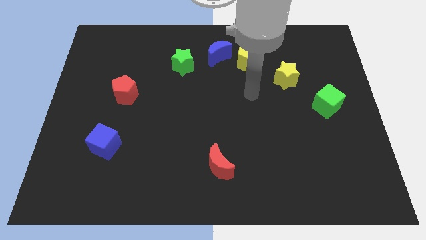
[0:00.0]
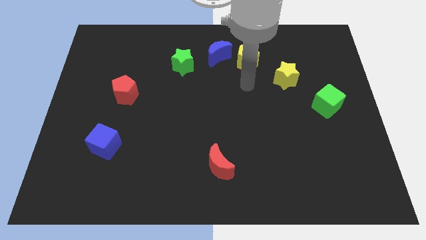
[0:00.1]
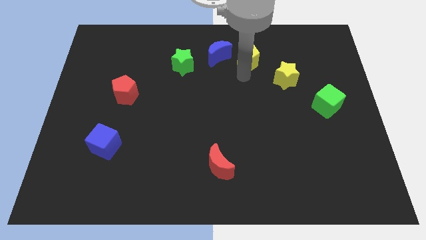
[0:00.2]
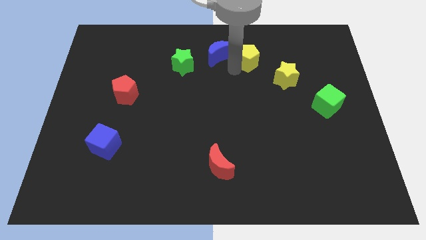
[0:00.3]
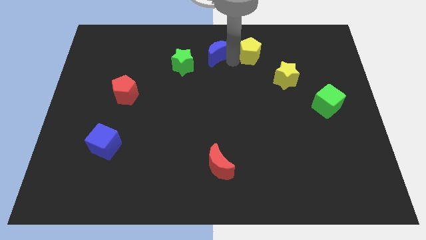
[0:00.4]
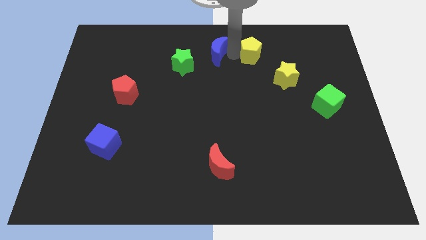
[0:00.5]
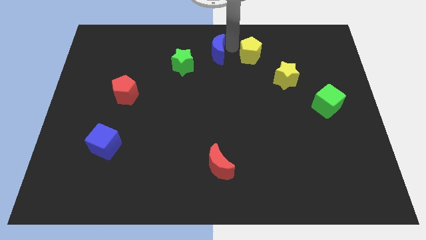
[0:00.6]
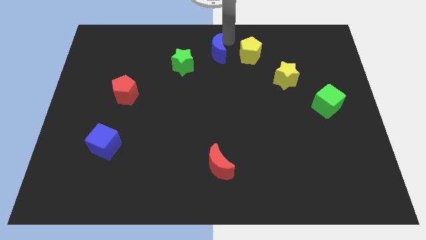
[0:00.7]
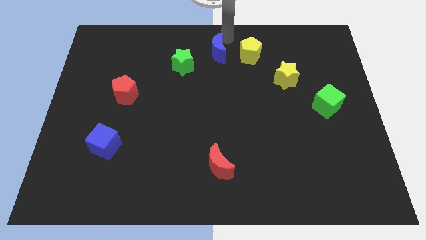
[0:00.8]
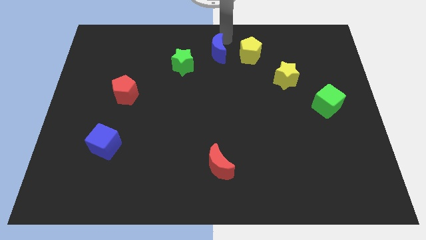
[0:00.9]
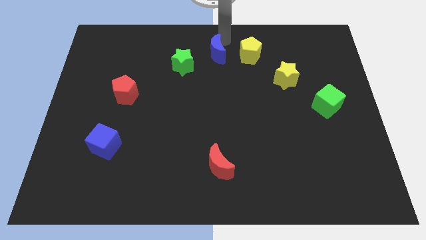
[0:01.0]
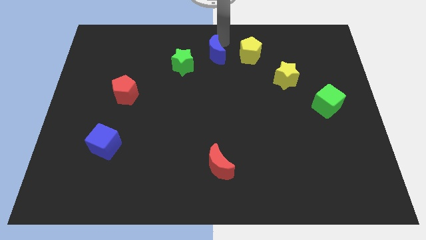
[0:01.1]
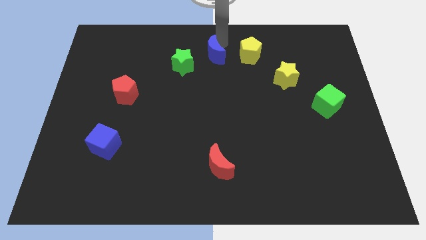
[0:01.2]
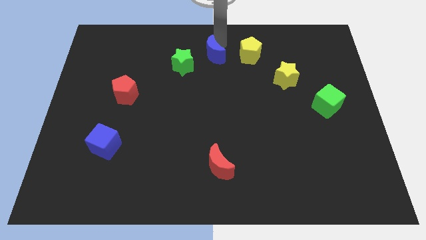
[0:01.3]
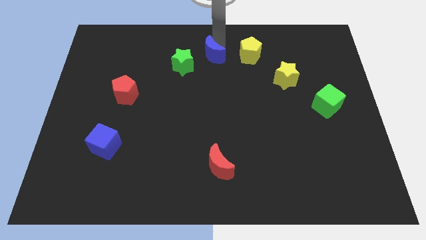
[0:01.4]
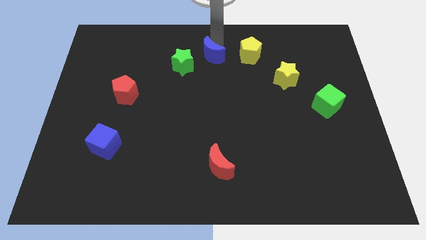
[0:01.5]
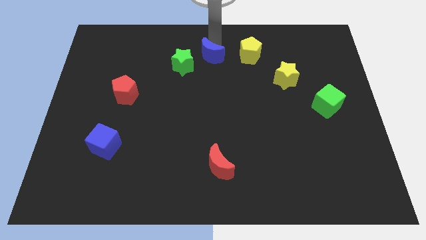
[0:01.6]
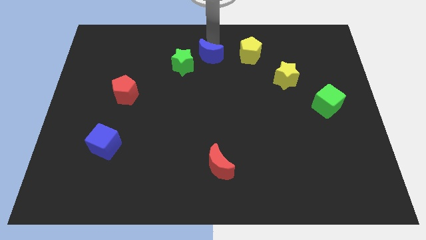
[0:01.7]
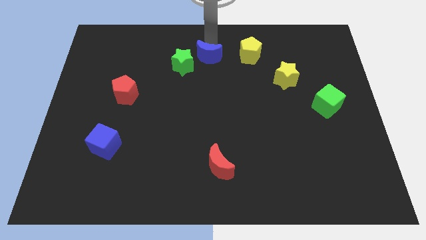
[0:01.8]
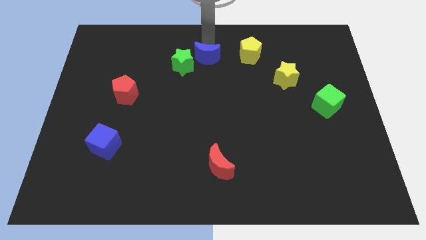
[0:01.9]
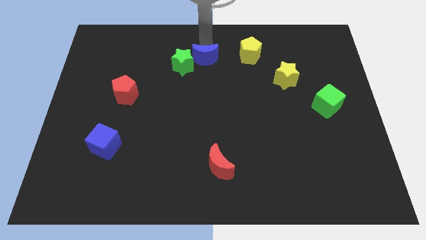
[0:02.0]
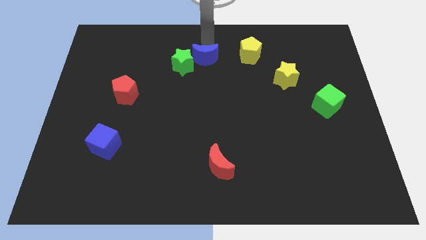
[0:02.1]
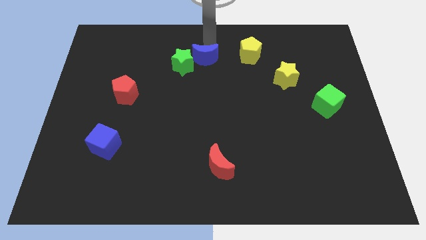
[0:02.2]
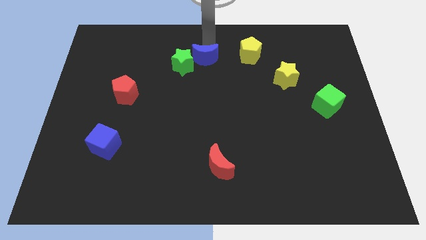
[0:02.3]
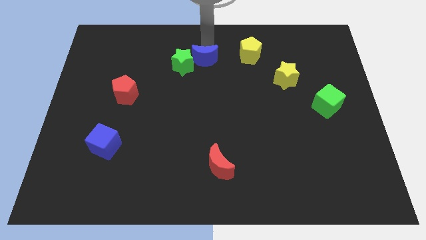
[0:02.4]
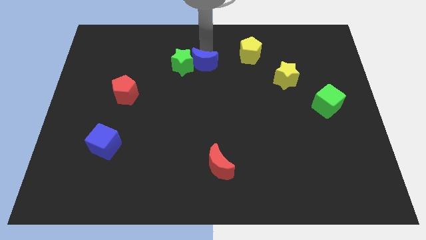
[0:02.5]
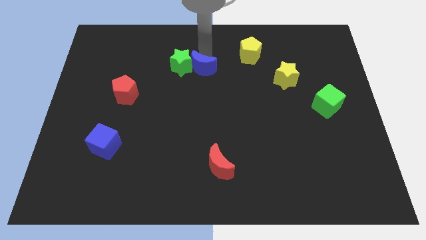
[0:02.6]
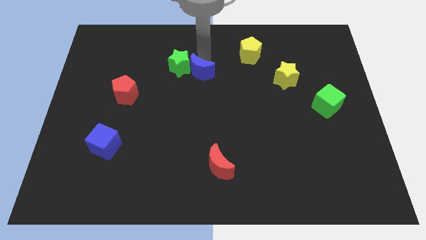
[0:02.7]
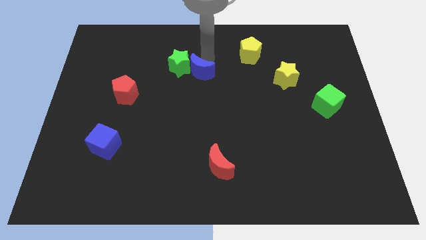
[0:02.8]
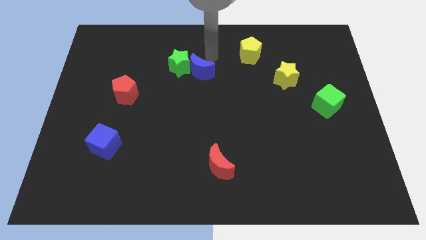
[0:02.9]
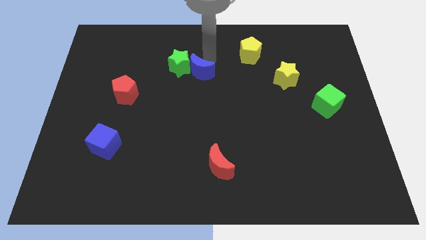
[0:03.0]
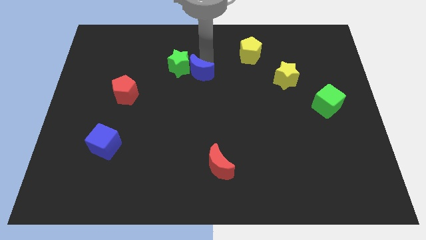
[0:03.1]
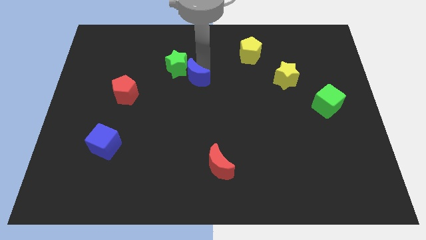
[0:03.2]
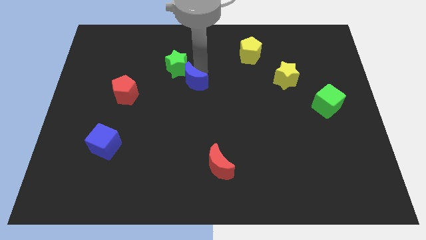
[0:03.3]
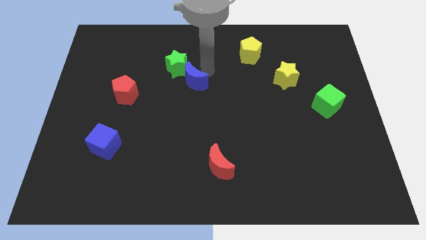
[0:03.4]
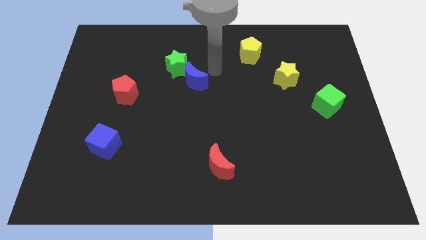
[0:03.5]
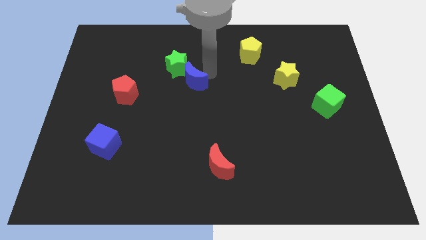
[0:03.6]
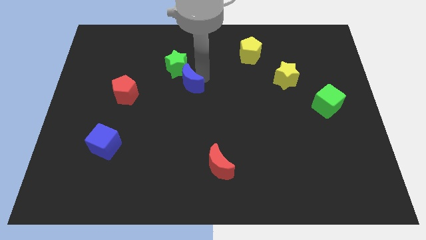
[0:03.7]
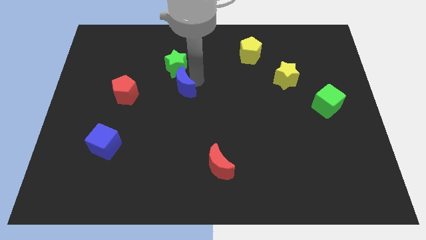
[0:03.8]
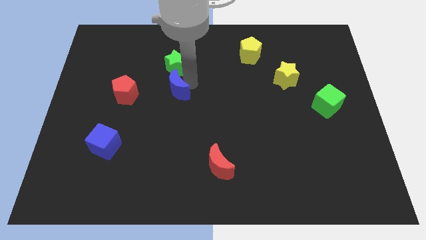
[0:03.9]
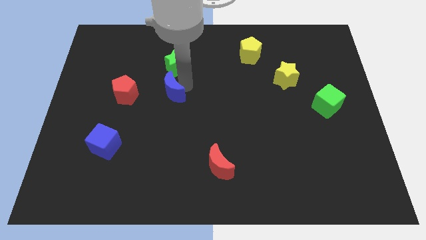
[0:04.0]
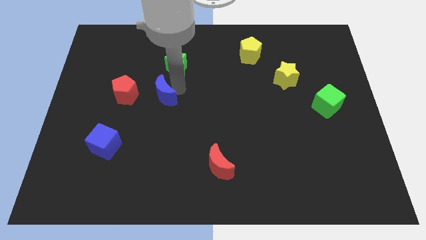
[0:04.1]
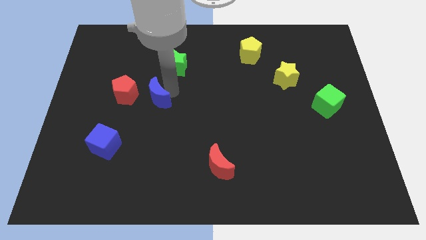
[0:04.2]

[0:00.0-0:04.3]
move the blue moon diagonally down and left

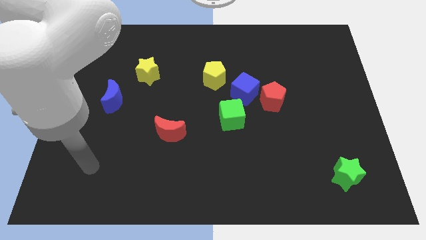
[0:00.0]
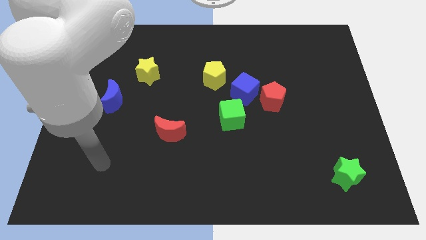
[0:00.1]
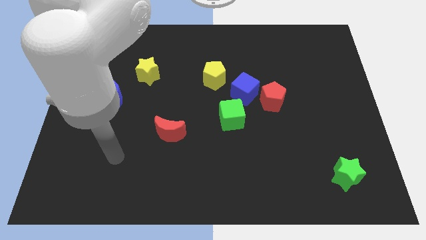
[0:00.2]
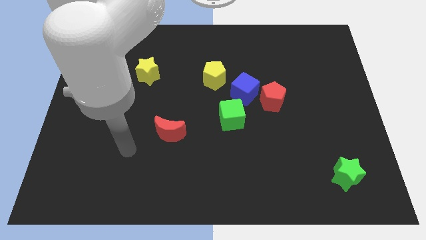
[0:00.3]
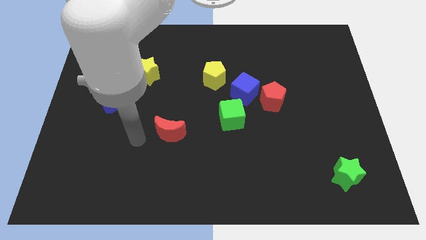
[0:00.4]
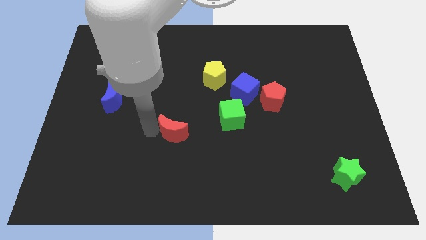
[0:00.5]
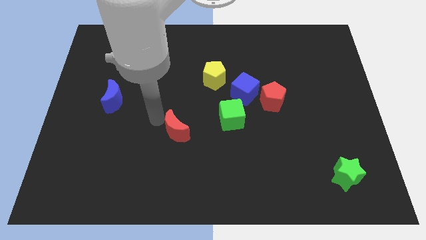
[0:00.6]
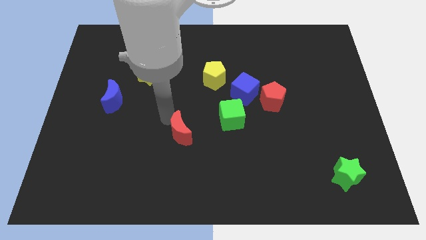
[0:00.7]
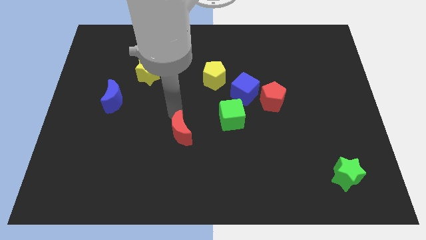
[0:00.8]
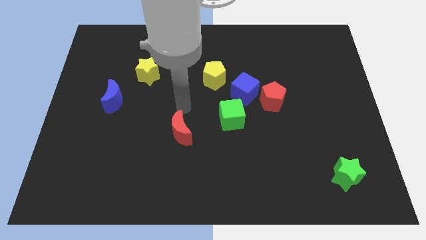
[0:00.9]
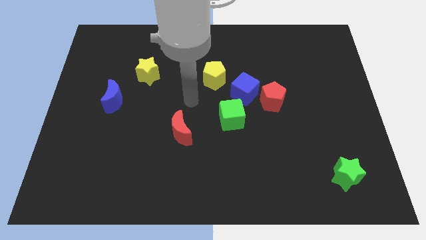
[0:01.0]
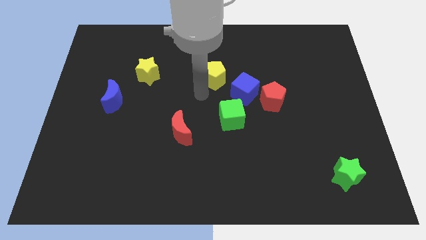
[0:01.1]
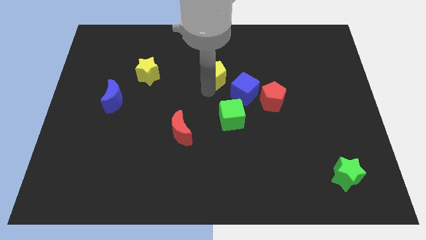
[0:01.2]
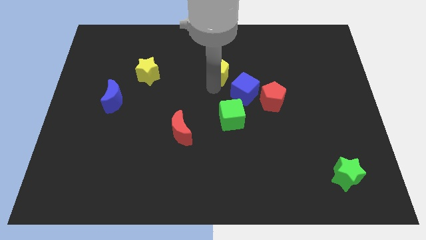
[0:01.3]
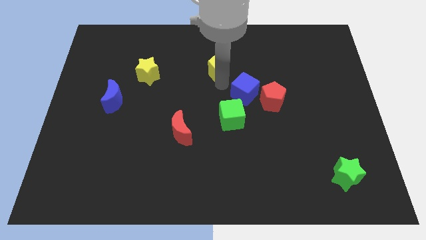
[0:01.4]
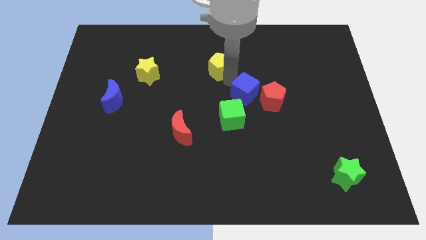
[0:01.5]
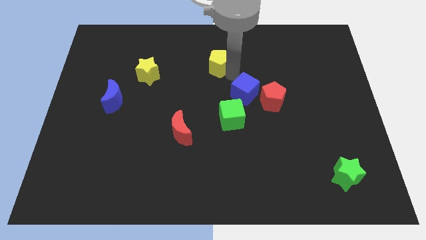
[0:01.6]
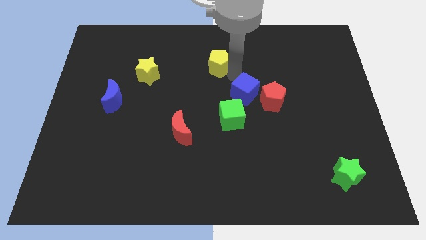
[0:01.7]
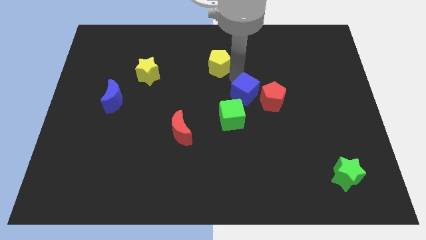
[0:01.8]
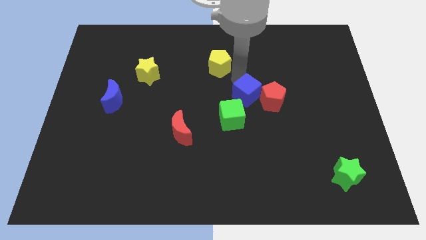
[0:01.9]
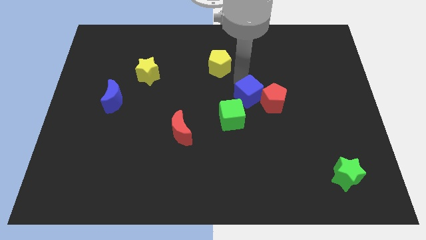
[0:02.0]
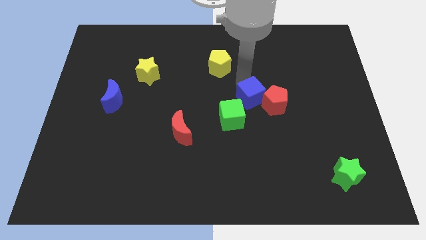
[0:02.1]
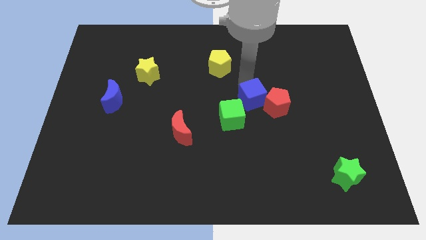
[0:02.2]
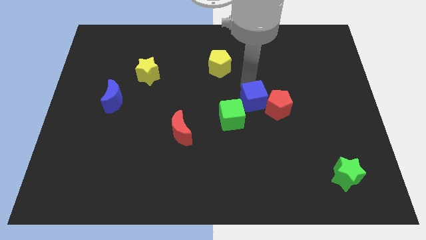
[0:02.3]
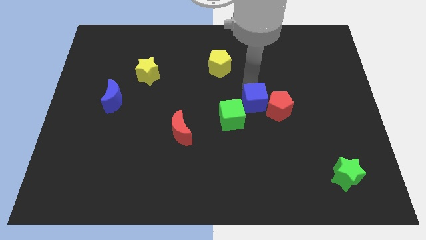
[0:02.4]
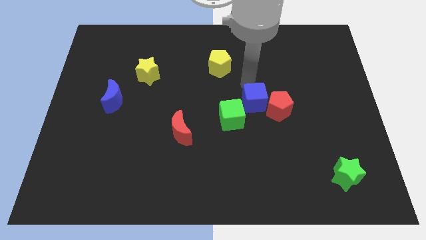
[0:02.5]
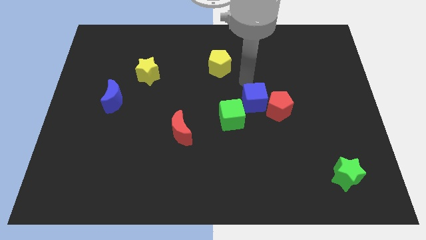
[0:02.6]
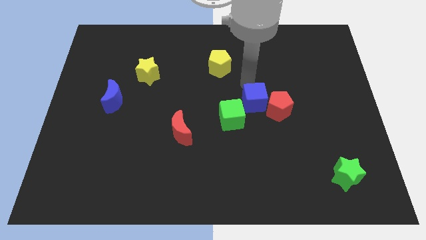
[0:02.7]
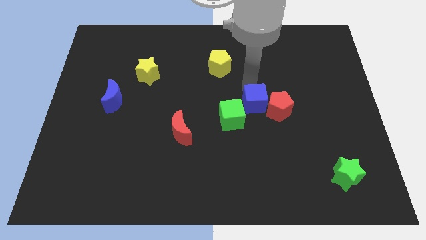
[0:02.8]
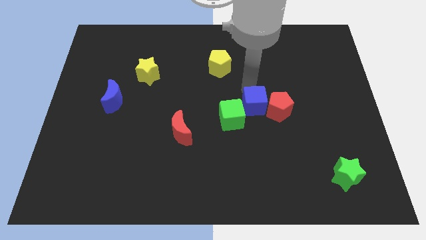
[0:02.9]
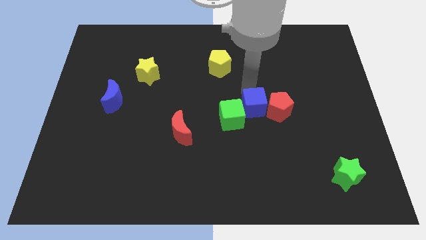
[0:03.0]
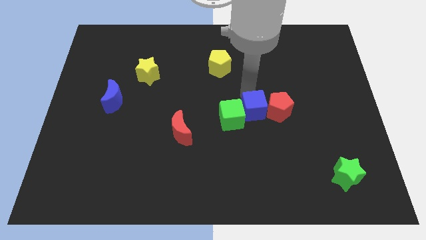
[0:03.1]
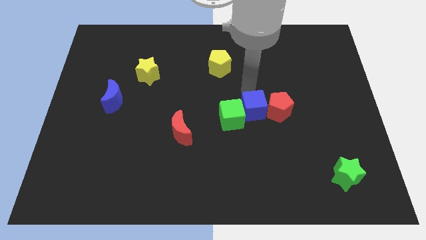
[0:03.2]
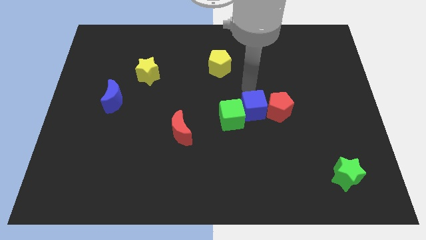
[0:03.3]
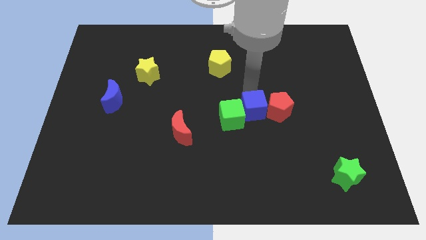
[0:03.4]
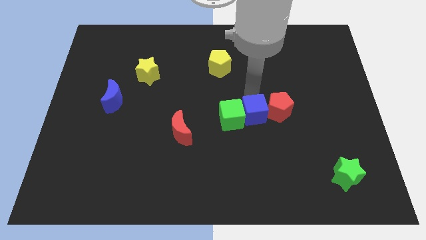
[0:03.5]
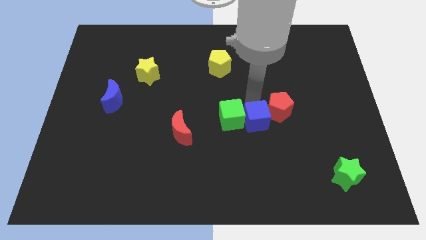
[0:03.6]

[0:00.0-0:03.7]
slide the blue cube down slightly

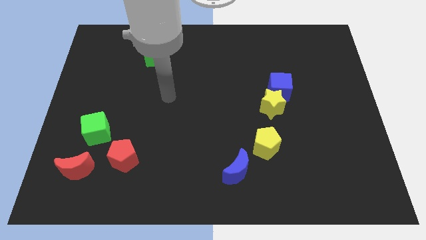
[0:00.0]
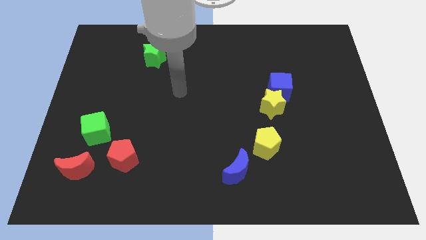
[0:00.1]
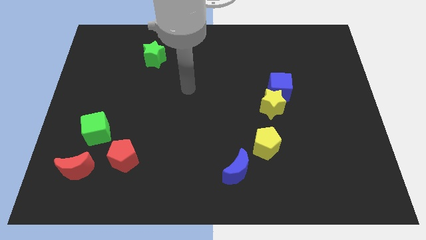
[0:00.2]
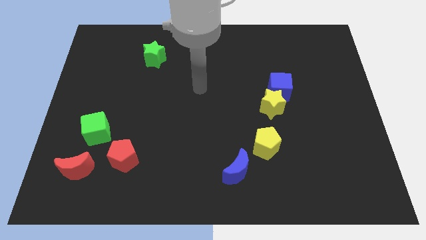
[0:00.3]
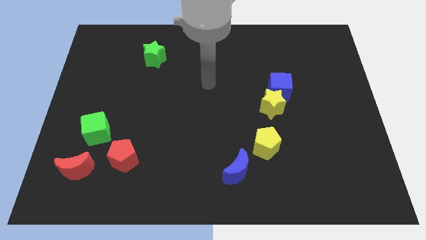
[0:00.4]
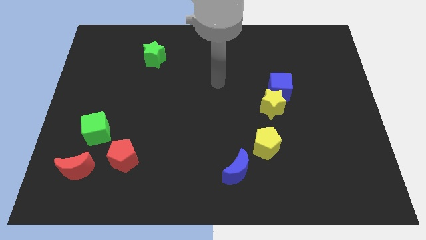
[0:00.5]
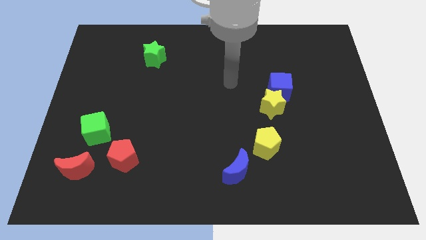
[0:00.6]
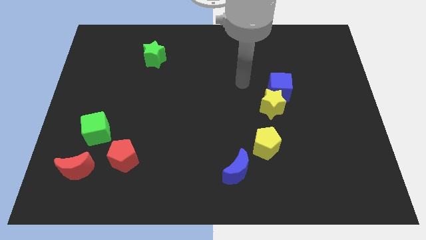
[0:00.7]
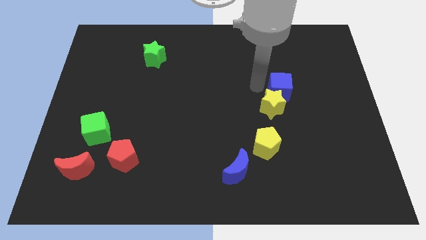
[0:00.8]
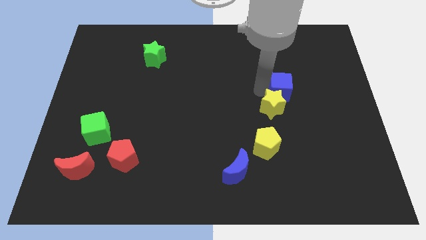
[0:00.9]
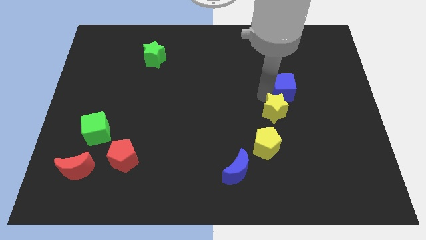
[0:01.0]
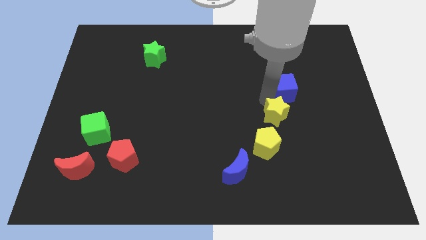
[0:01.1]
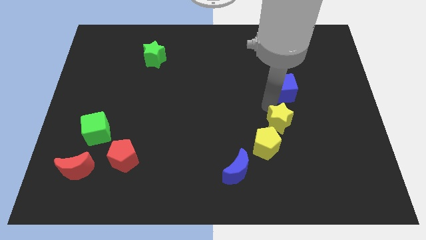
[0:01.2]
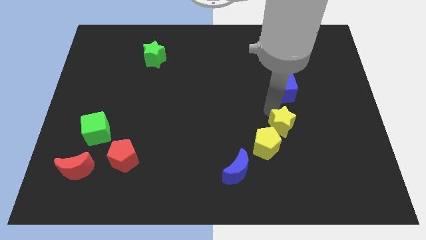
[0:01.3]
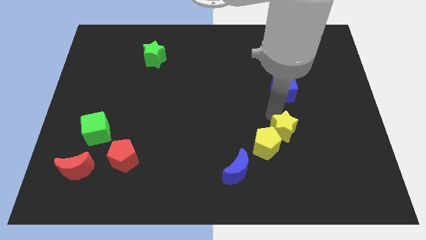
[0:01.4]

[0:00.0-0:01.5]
push the yellow star down slightly
